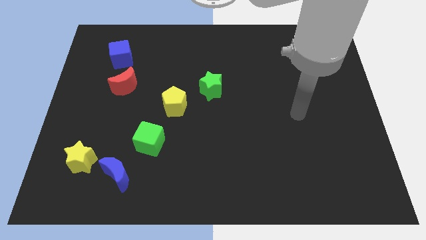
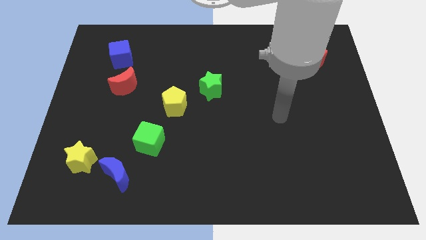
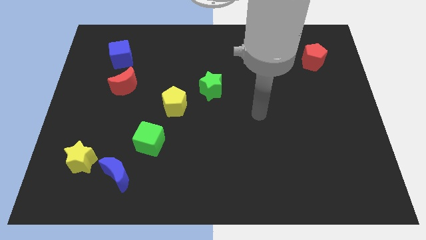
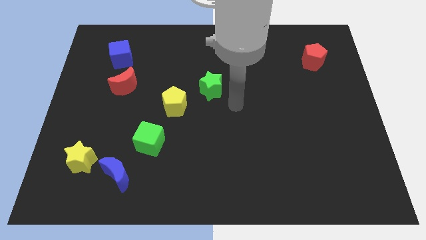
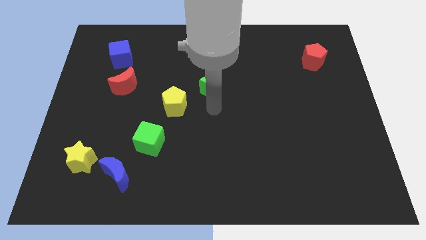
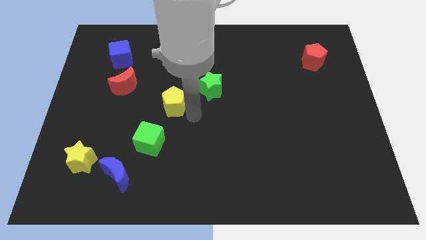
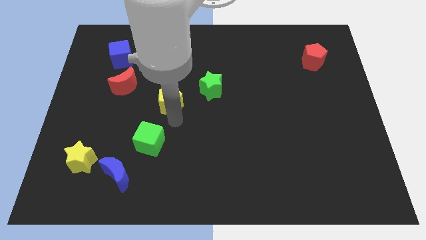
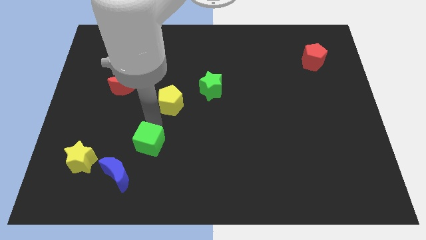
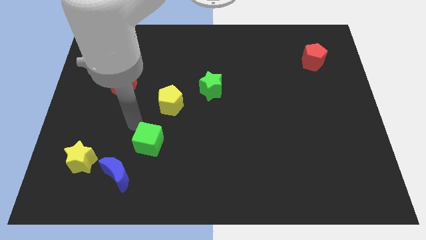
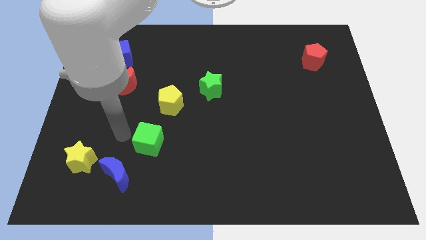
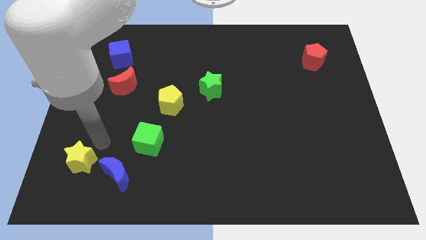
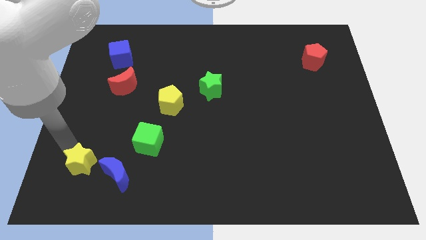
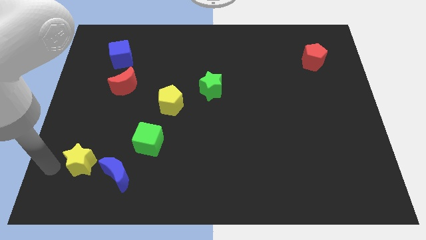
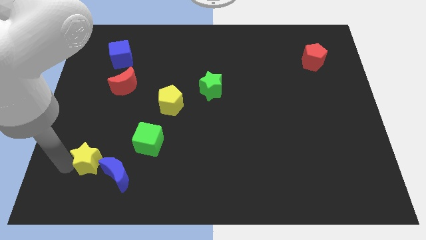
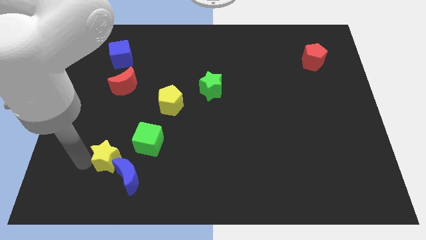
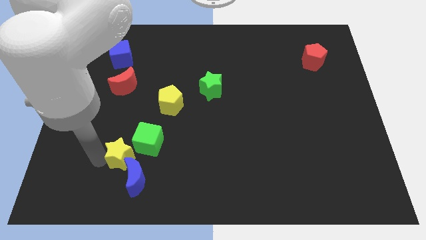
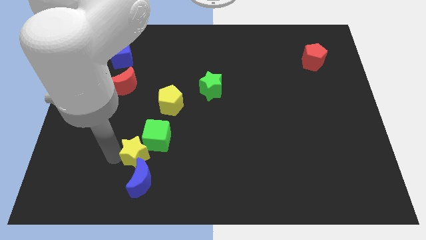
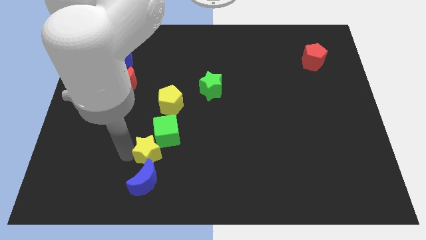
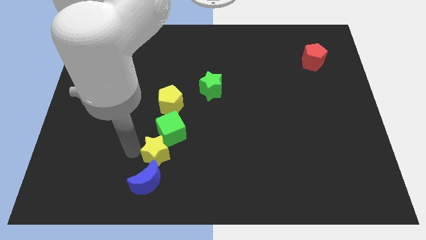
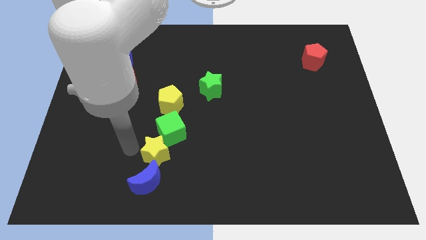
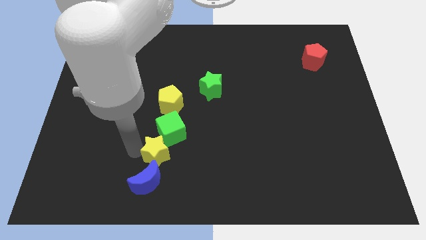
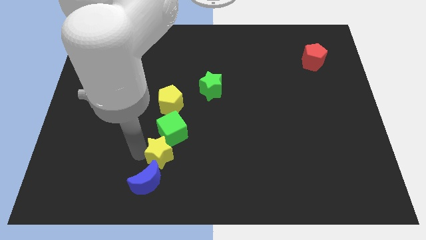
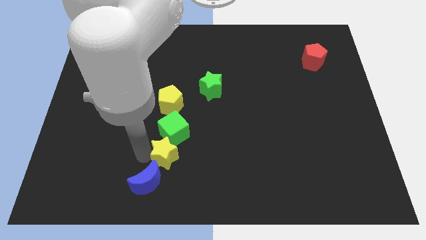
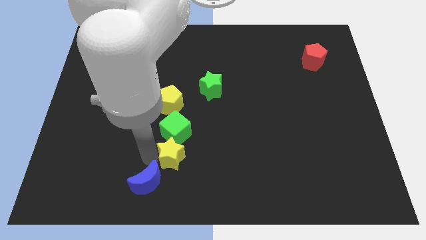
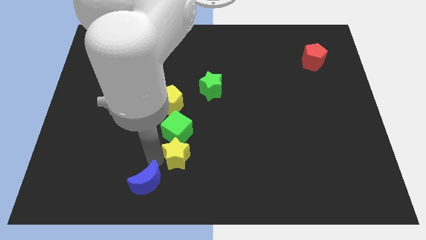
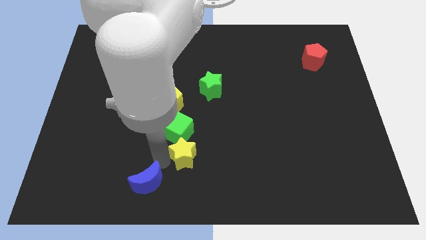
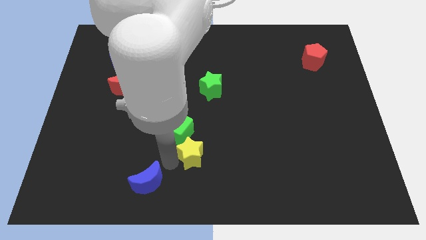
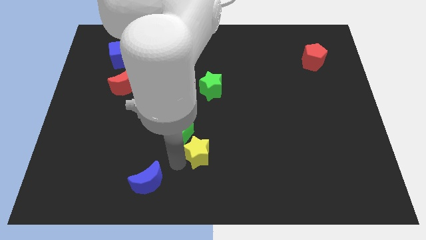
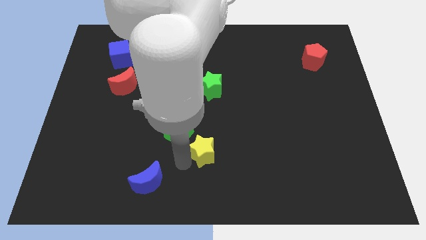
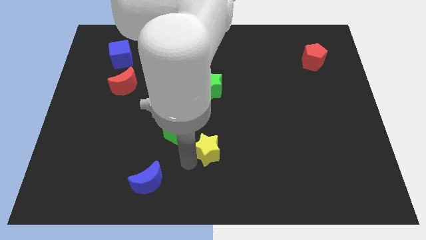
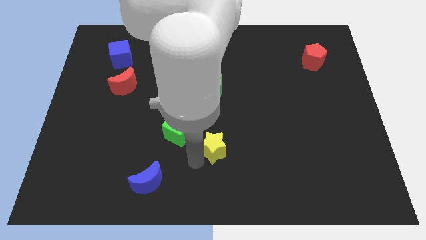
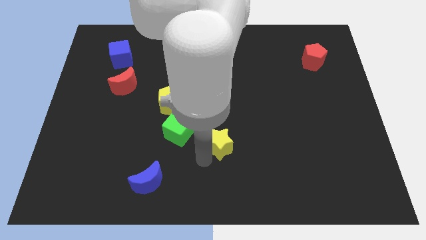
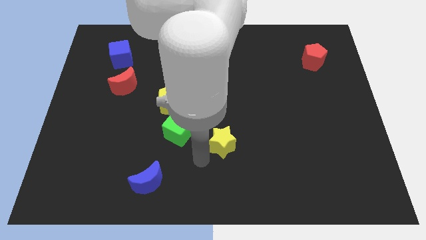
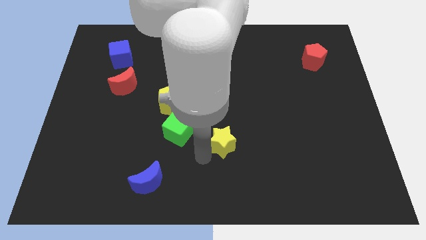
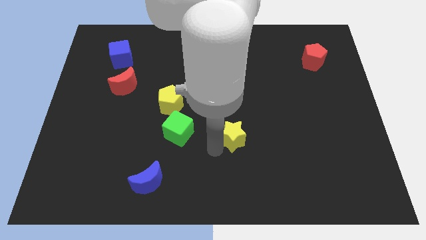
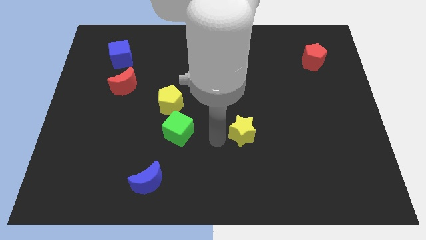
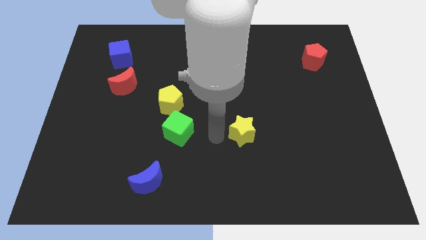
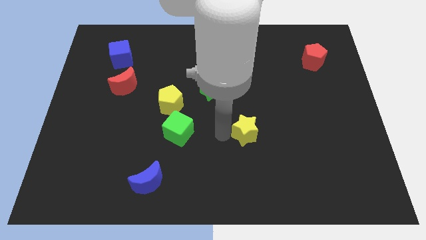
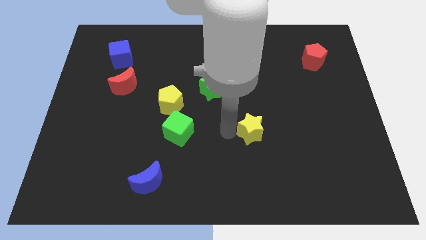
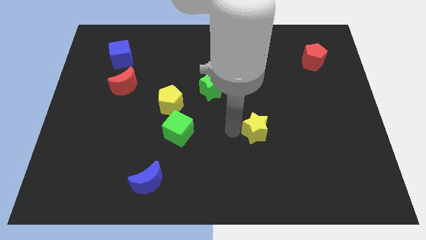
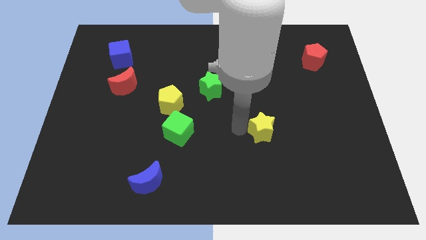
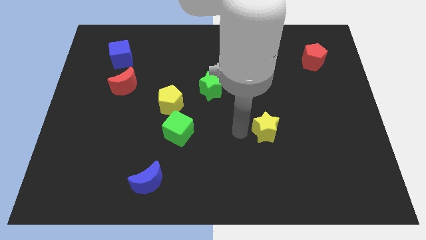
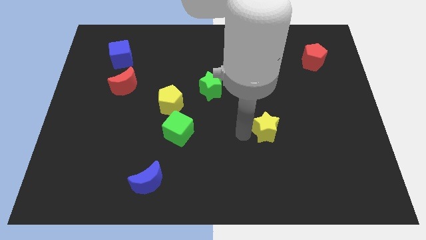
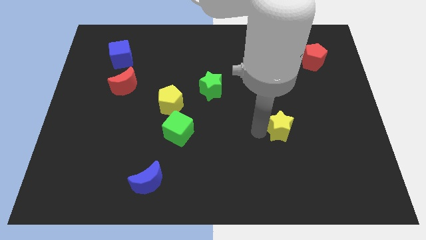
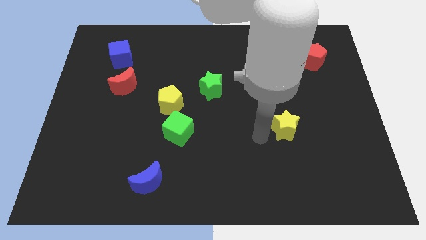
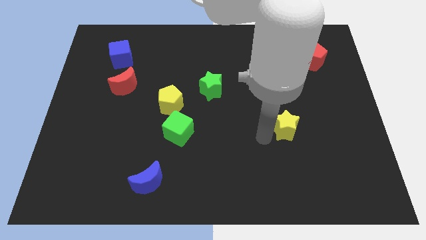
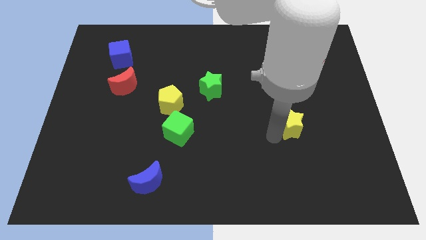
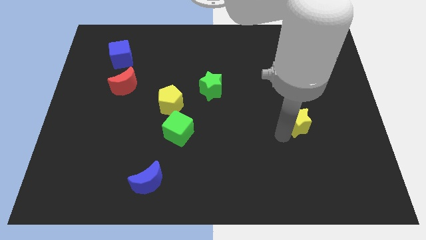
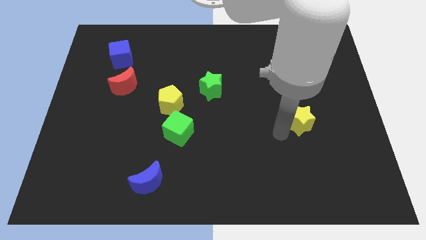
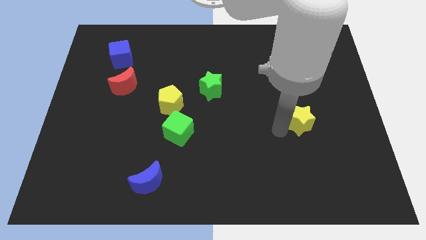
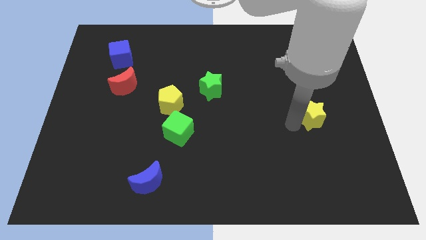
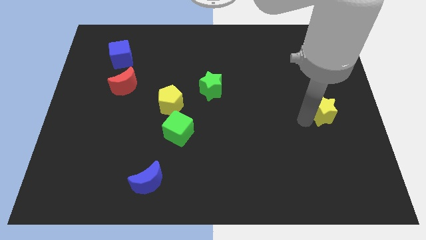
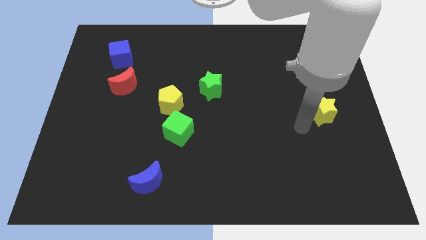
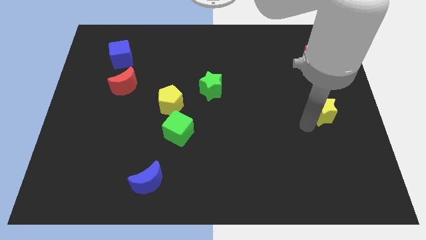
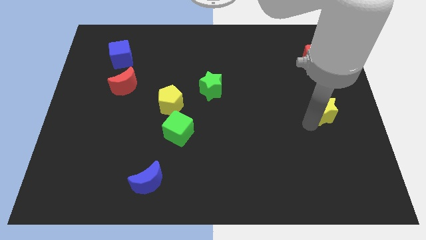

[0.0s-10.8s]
slide the yellow star to the center right

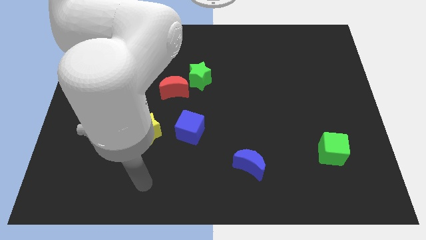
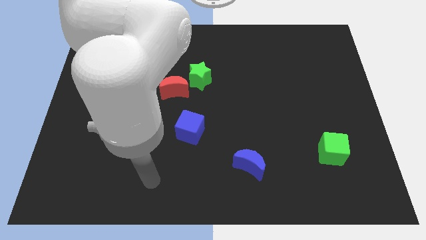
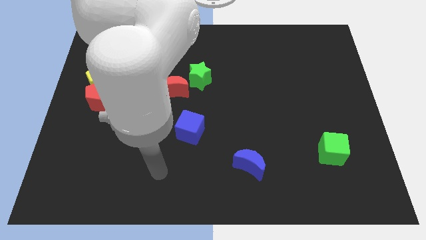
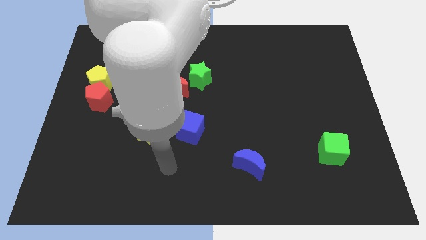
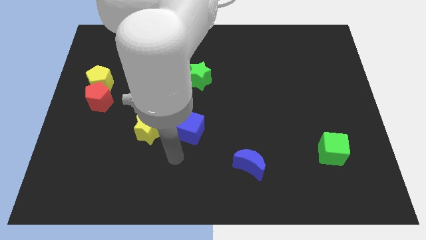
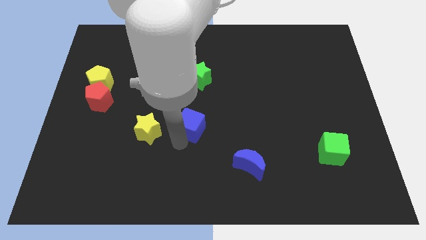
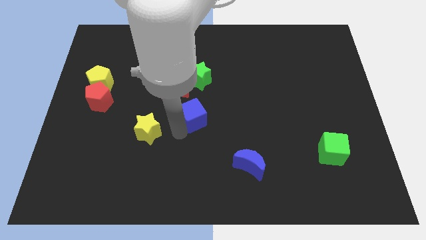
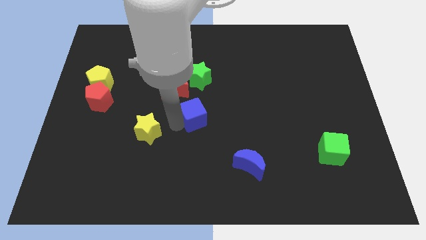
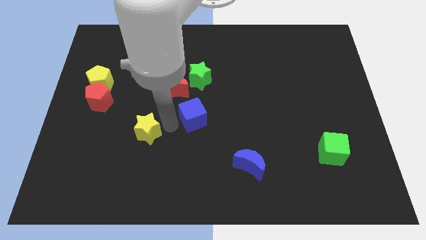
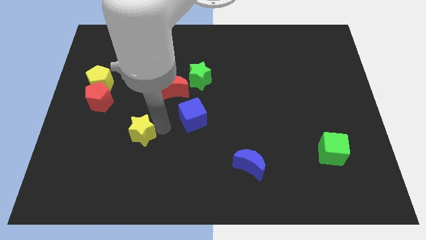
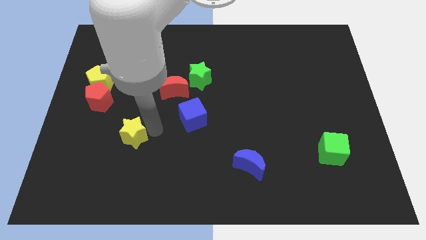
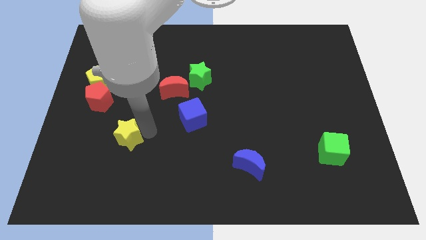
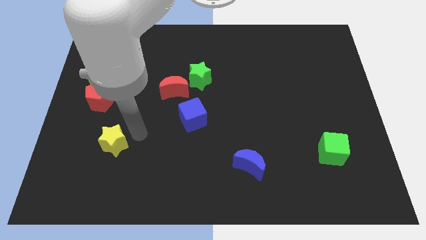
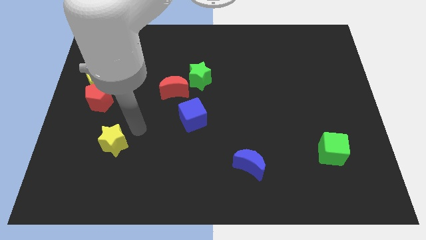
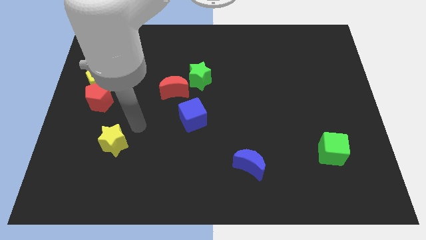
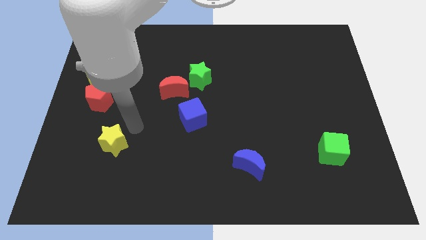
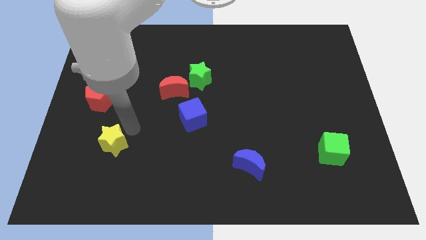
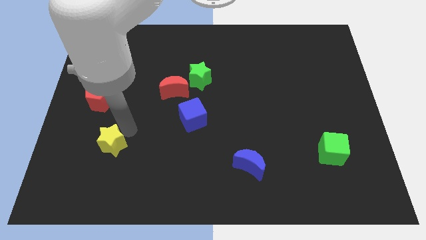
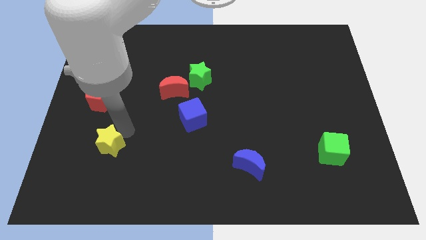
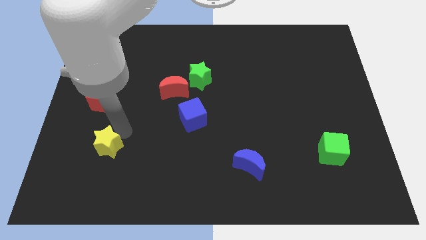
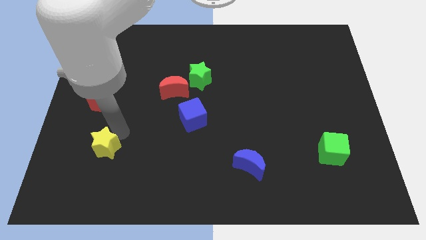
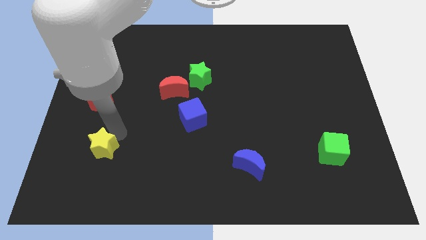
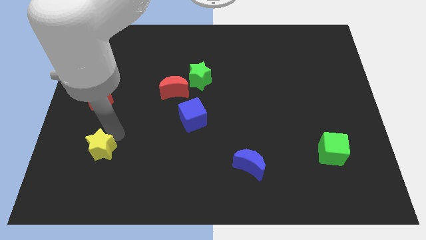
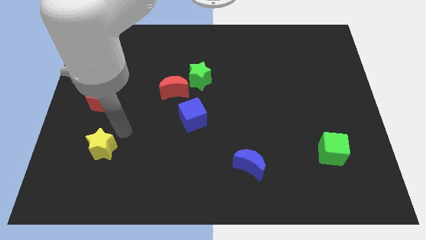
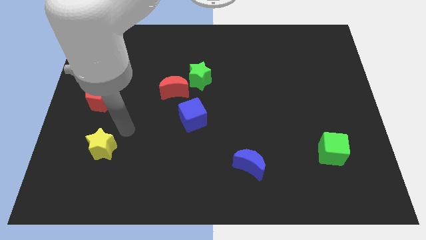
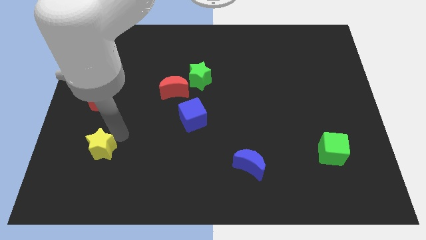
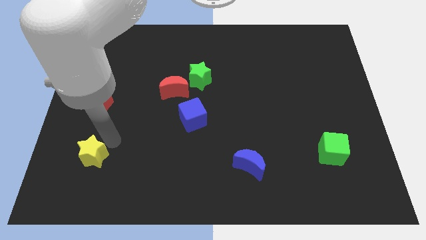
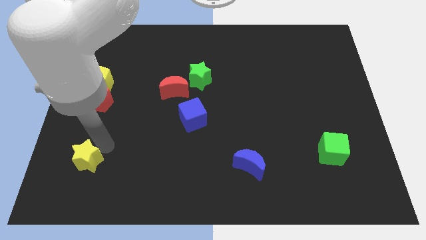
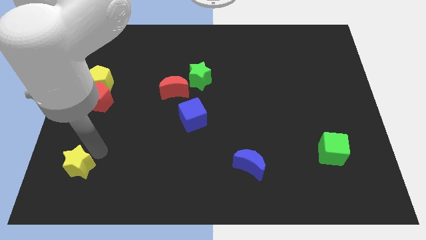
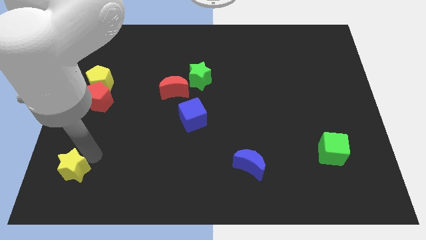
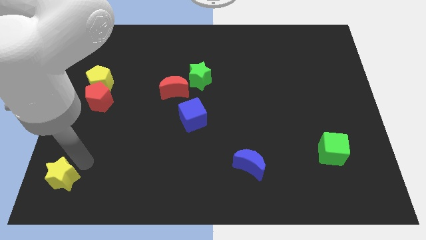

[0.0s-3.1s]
slide the yellow star to the bottom left of the board
